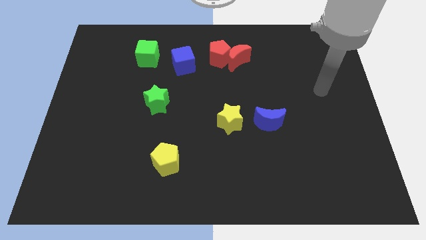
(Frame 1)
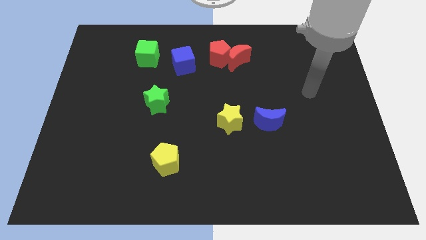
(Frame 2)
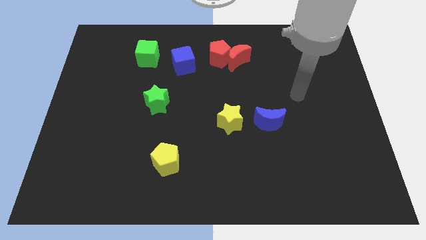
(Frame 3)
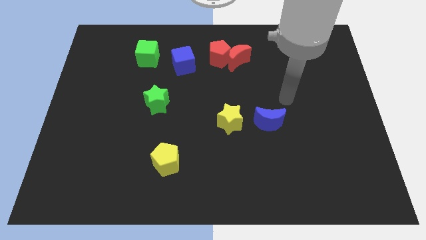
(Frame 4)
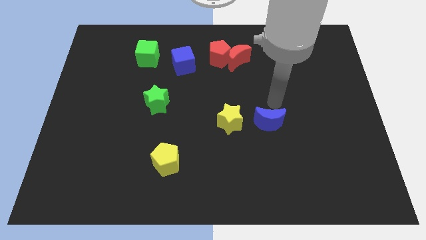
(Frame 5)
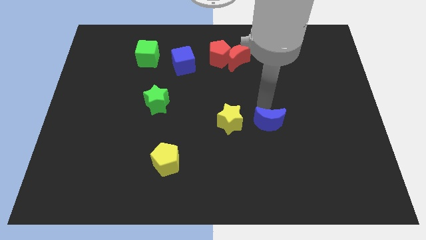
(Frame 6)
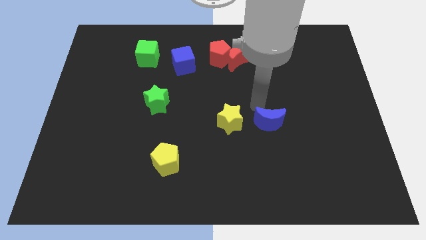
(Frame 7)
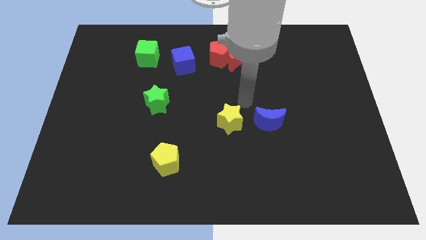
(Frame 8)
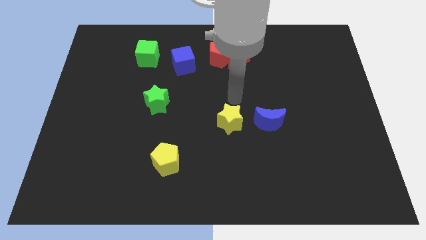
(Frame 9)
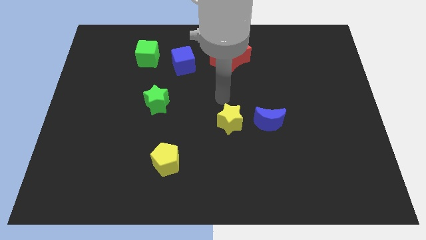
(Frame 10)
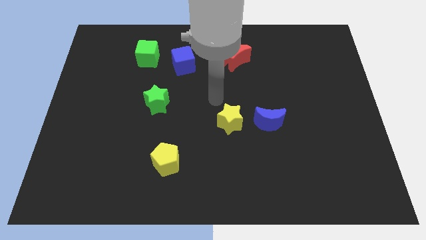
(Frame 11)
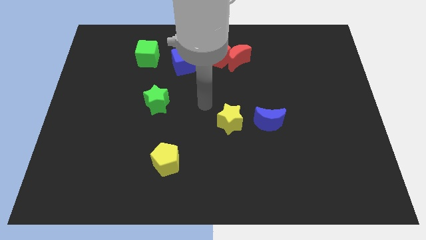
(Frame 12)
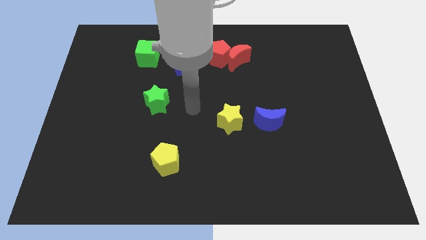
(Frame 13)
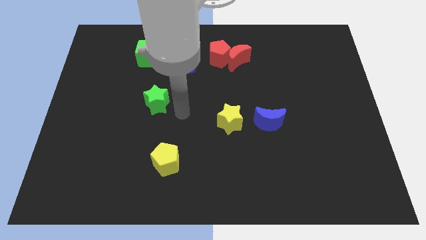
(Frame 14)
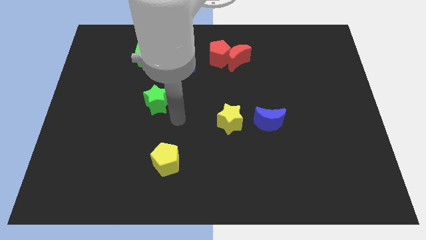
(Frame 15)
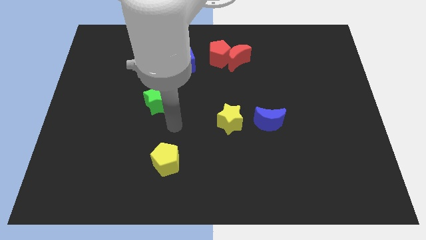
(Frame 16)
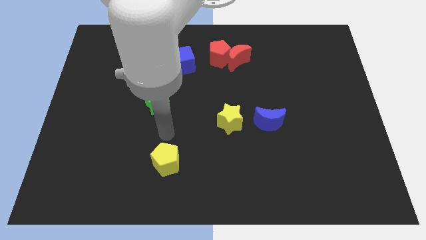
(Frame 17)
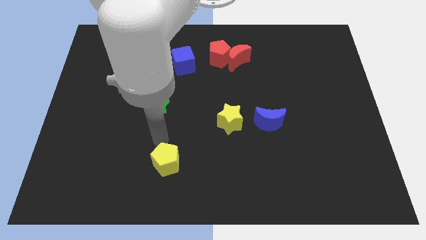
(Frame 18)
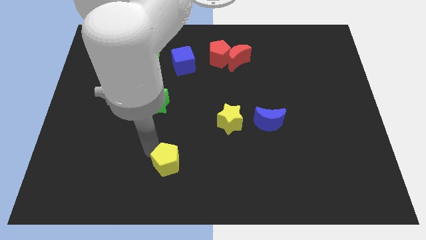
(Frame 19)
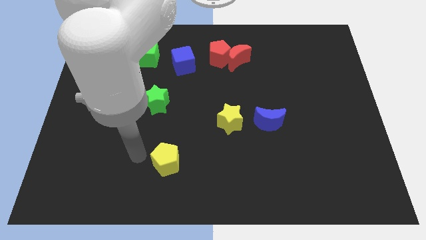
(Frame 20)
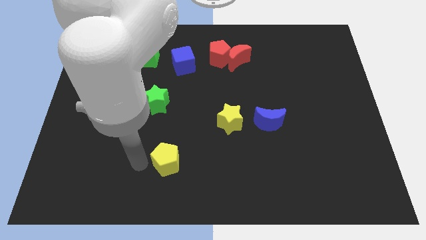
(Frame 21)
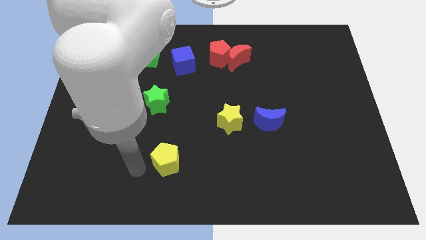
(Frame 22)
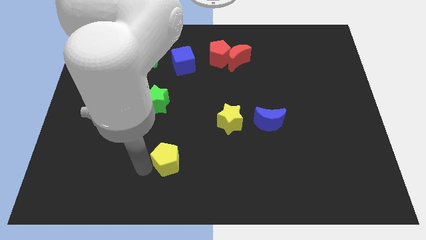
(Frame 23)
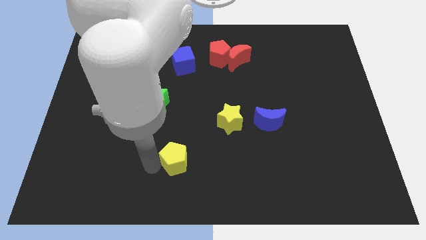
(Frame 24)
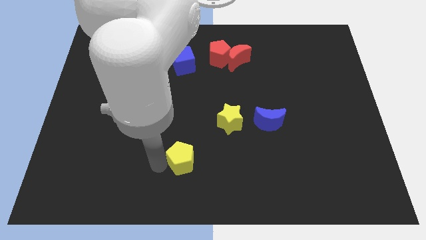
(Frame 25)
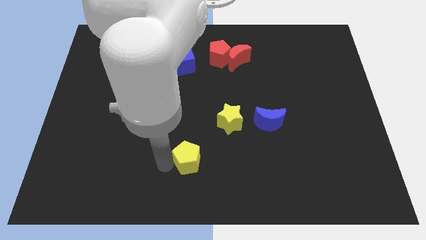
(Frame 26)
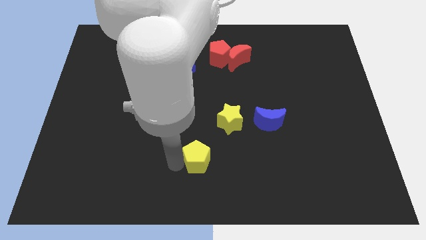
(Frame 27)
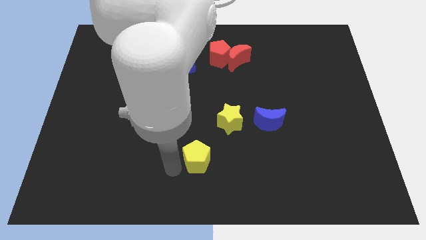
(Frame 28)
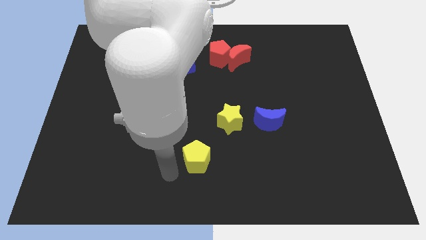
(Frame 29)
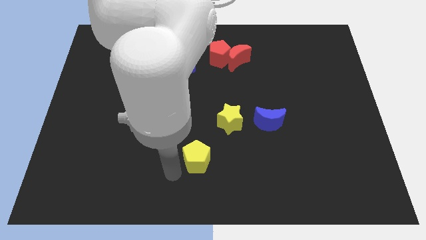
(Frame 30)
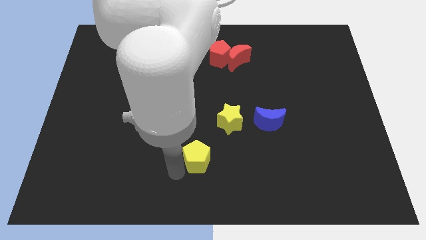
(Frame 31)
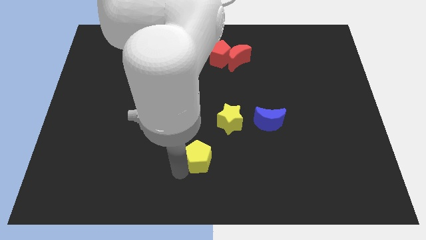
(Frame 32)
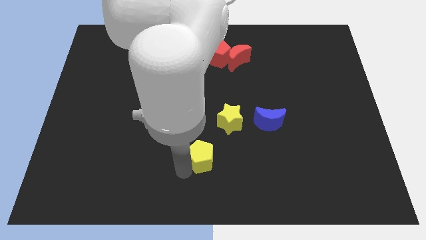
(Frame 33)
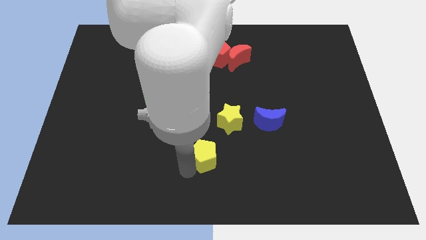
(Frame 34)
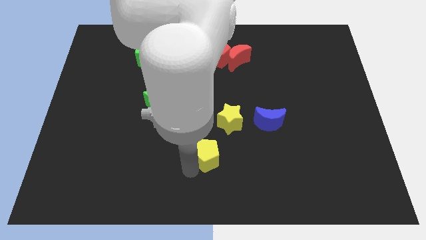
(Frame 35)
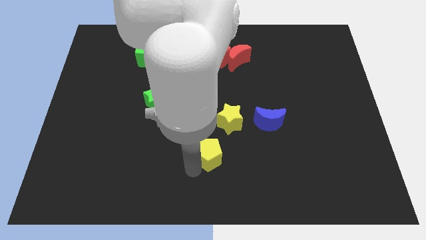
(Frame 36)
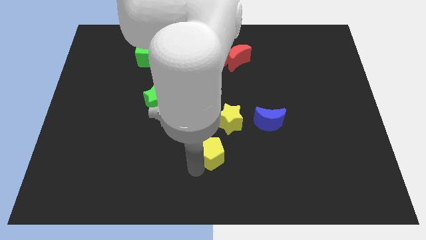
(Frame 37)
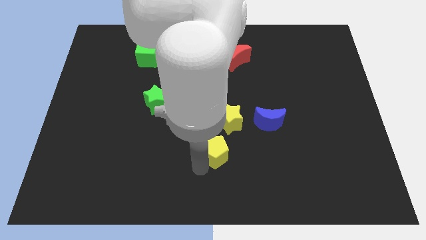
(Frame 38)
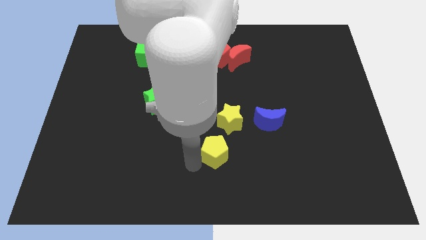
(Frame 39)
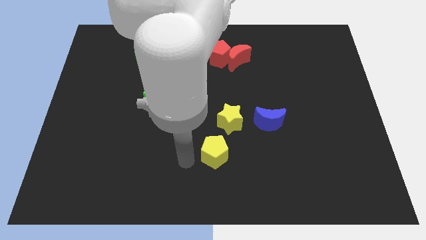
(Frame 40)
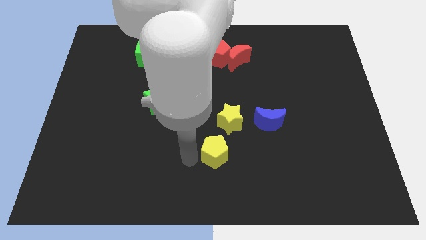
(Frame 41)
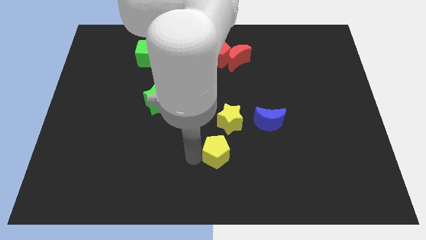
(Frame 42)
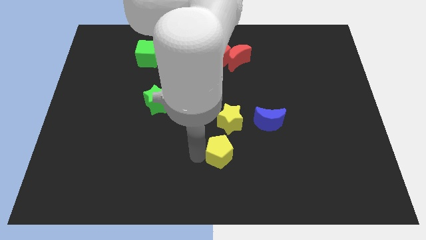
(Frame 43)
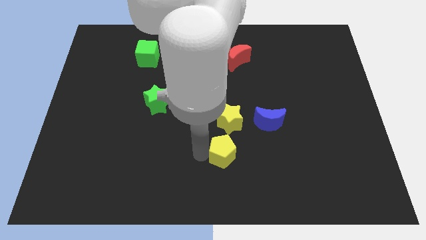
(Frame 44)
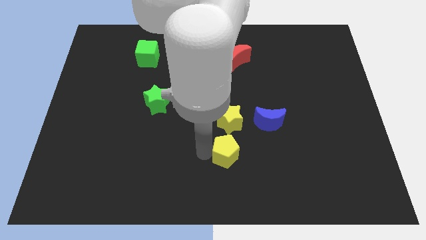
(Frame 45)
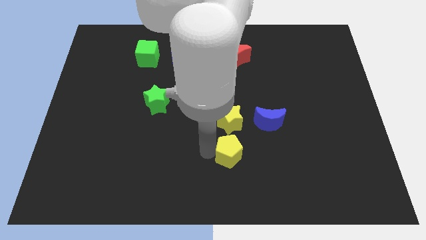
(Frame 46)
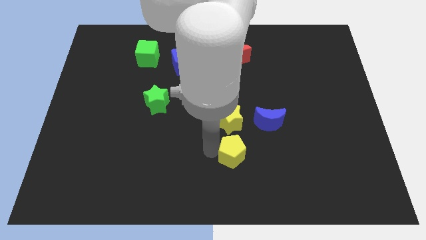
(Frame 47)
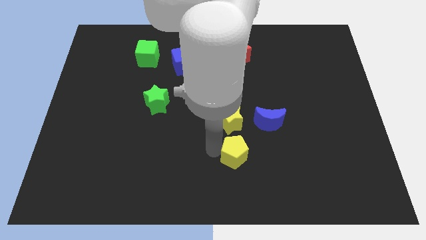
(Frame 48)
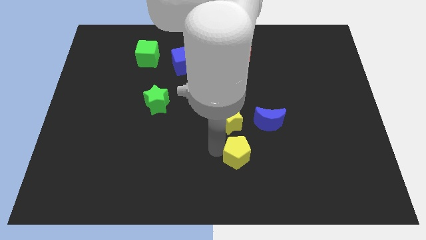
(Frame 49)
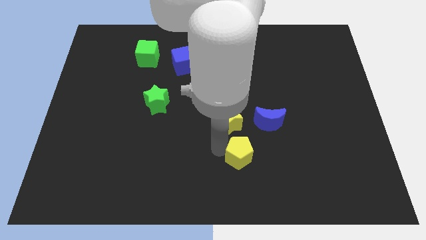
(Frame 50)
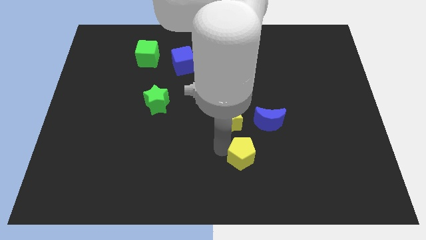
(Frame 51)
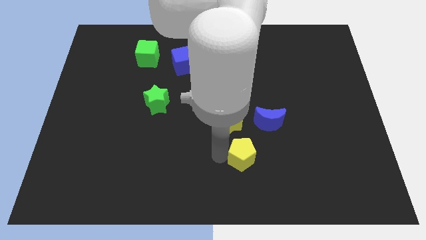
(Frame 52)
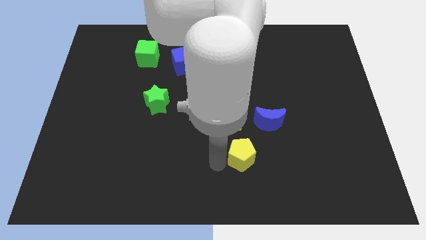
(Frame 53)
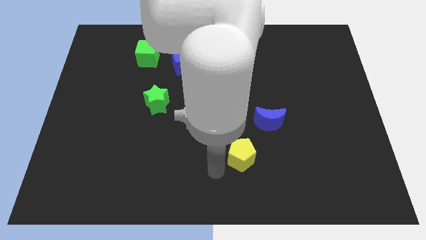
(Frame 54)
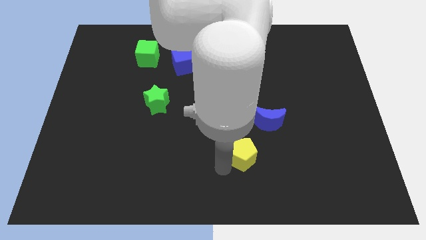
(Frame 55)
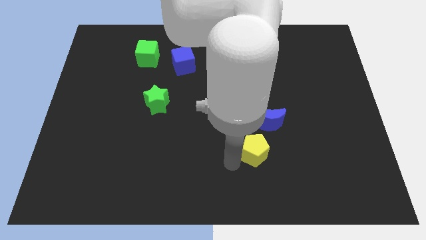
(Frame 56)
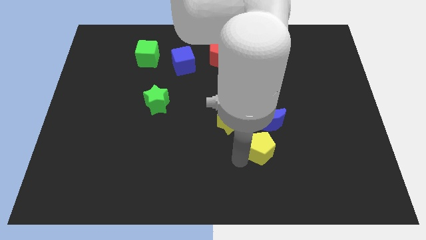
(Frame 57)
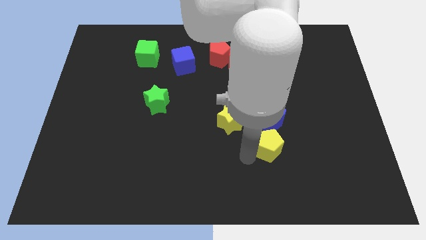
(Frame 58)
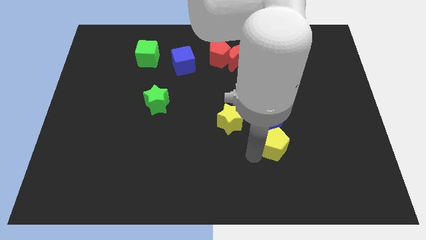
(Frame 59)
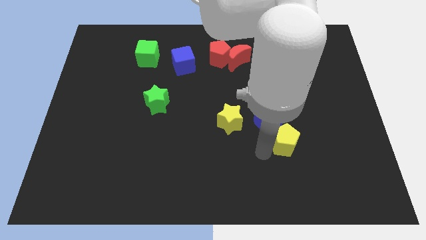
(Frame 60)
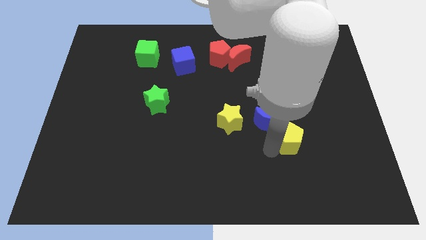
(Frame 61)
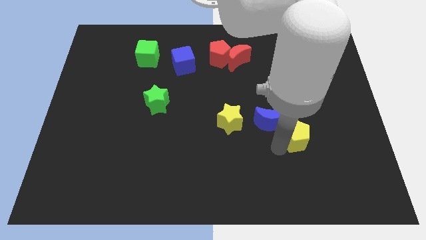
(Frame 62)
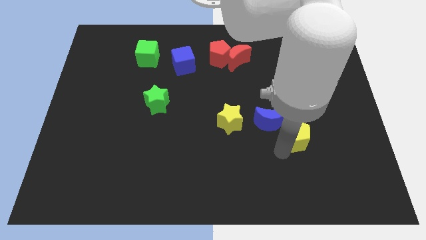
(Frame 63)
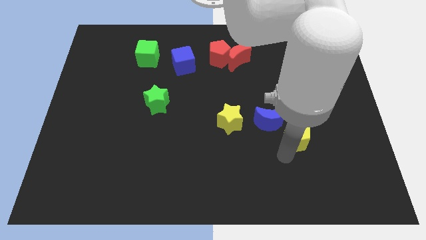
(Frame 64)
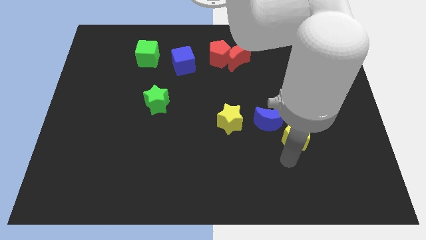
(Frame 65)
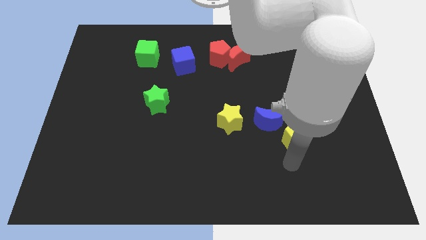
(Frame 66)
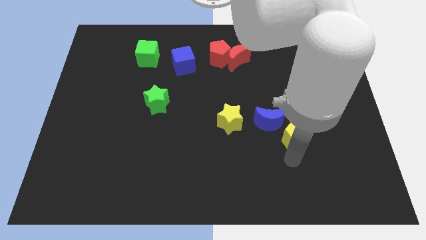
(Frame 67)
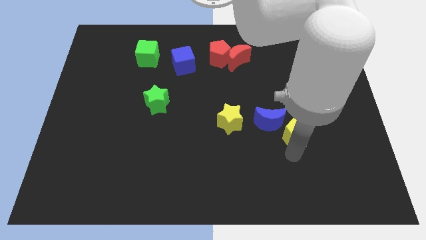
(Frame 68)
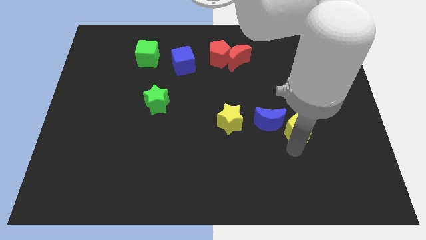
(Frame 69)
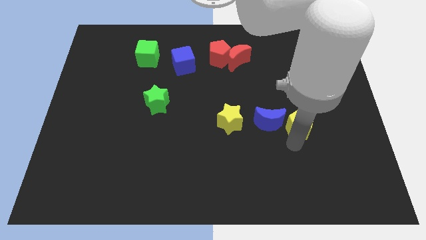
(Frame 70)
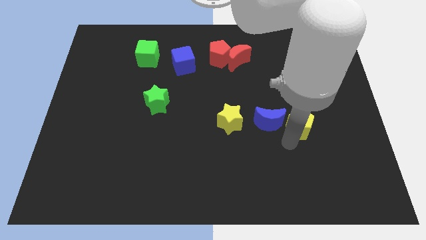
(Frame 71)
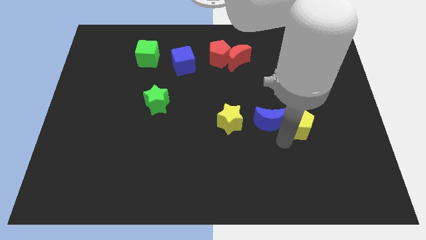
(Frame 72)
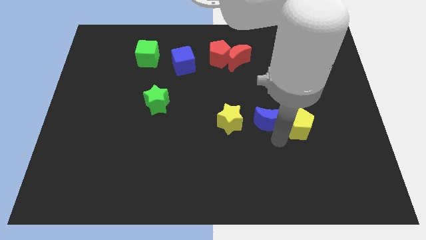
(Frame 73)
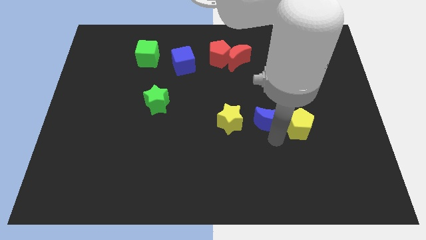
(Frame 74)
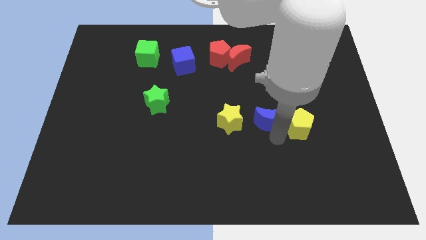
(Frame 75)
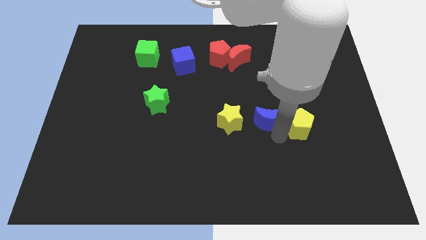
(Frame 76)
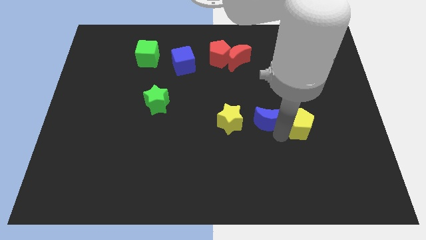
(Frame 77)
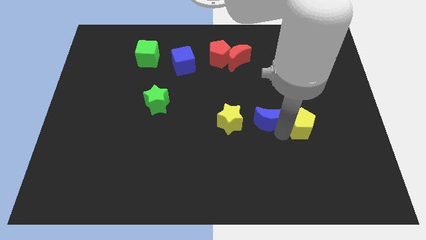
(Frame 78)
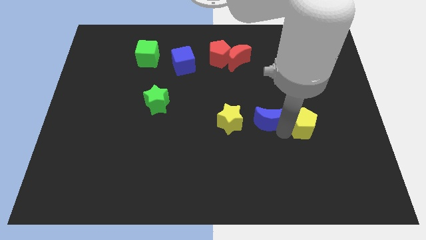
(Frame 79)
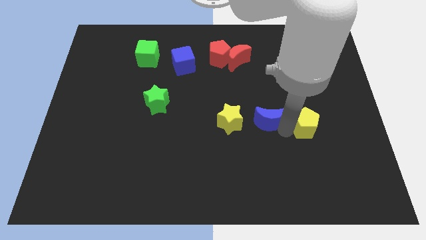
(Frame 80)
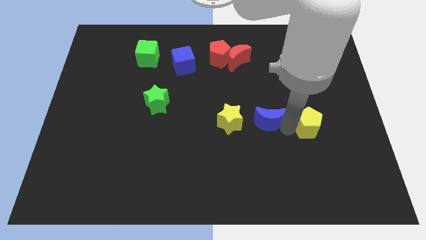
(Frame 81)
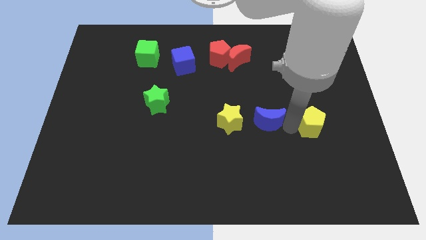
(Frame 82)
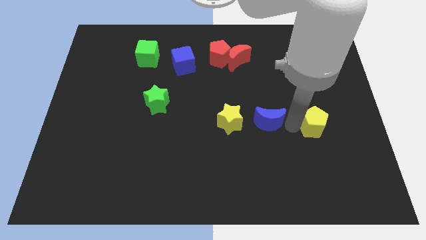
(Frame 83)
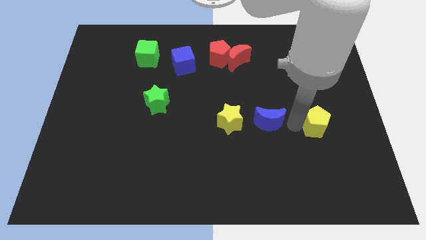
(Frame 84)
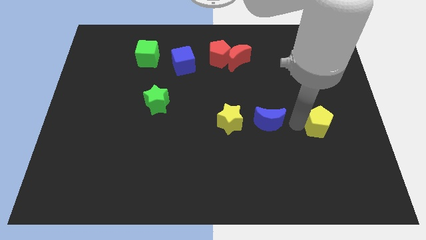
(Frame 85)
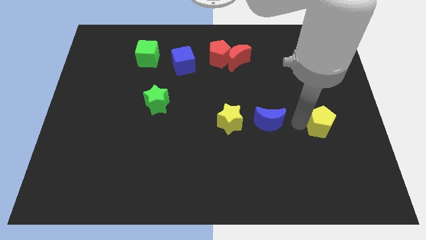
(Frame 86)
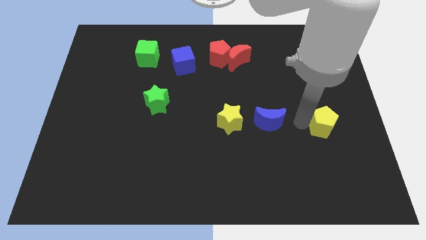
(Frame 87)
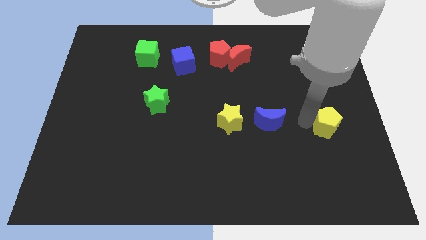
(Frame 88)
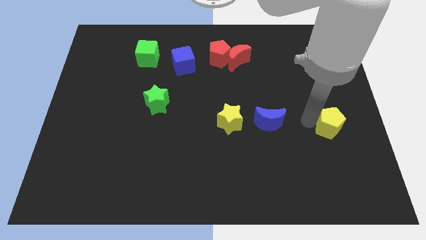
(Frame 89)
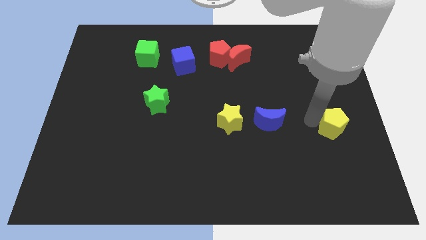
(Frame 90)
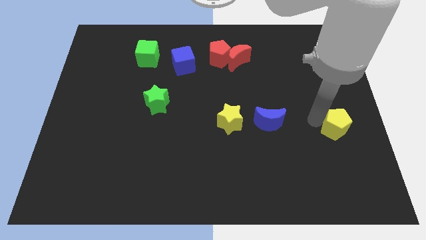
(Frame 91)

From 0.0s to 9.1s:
push the yellow pentagon to the right side
